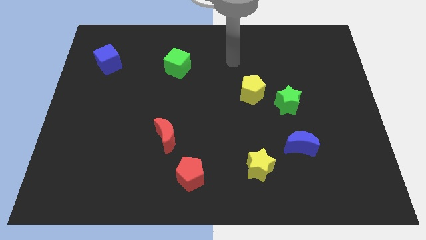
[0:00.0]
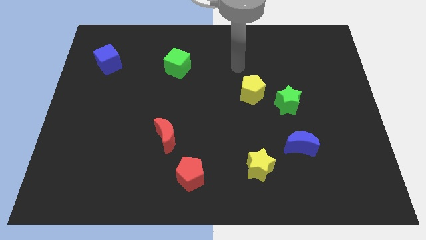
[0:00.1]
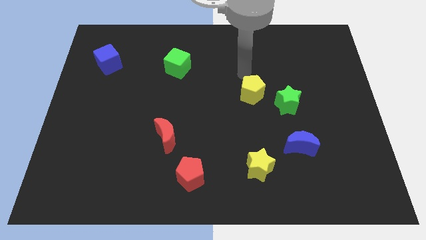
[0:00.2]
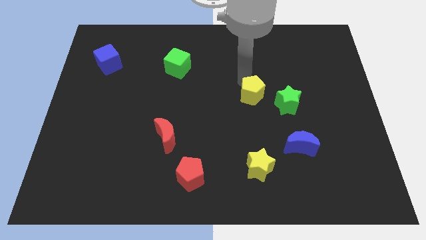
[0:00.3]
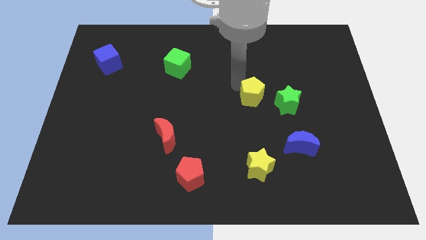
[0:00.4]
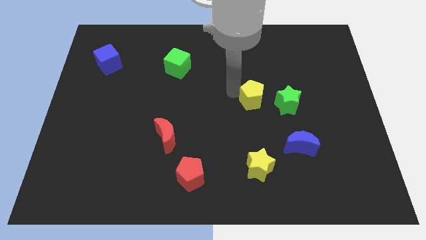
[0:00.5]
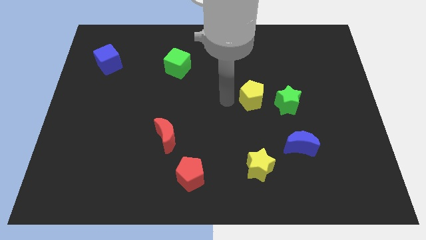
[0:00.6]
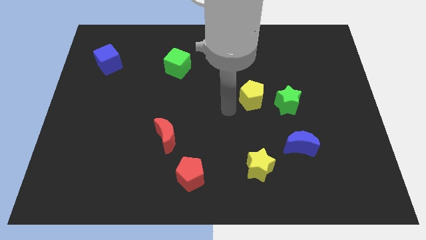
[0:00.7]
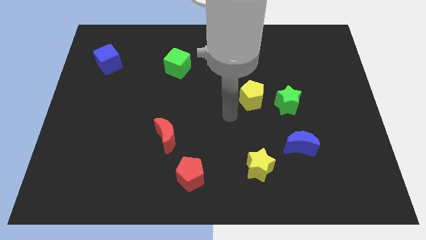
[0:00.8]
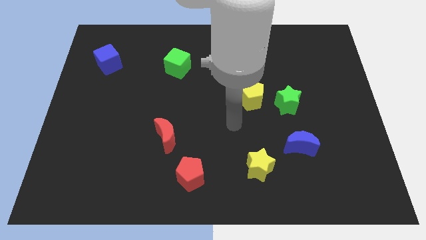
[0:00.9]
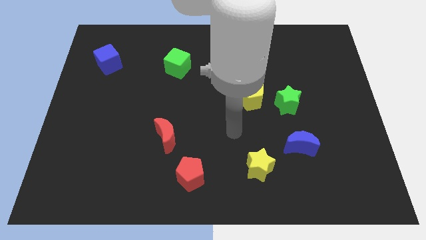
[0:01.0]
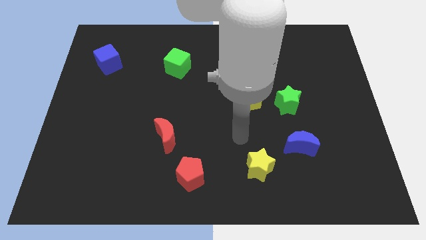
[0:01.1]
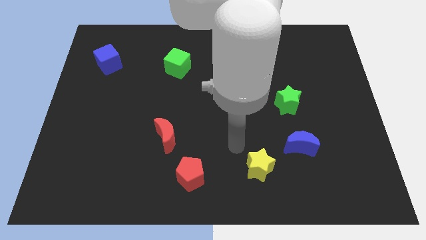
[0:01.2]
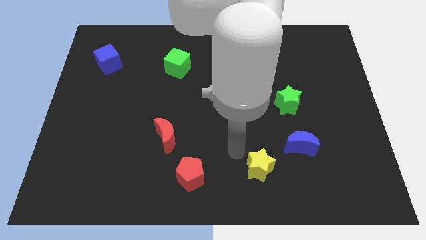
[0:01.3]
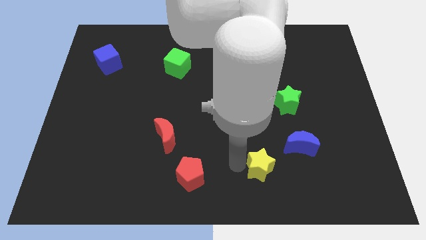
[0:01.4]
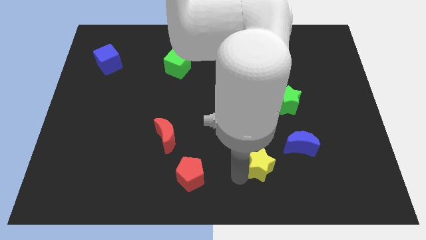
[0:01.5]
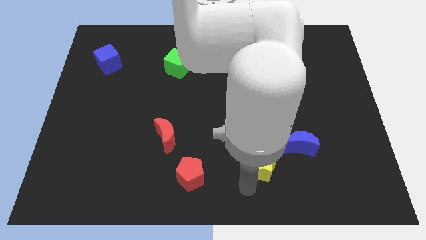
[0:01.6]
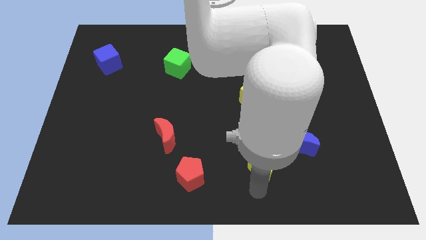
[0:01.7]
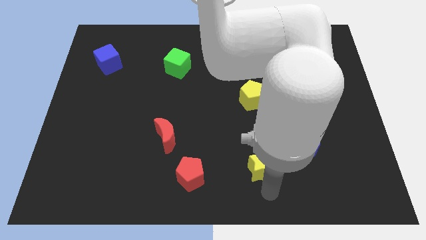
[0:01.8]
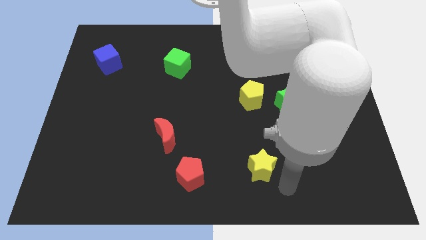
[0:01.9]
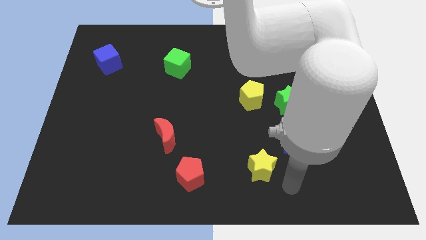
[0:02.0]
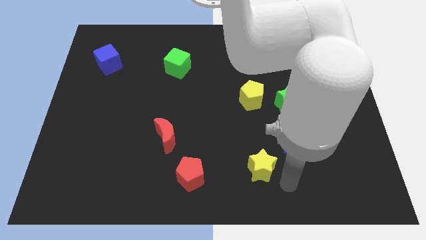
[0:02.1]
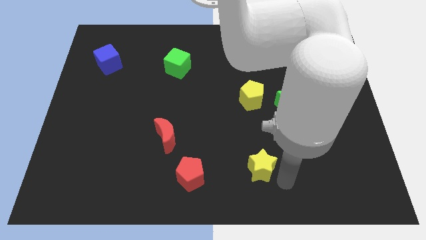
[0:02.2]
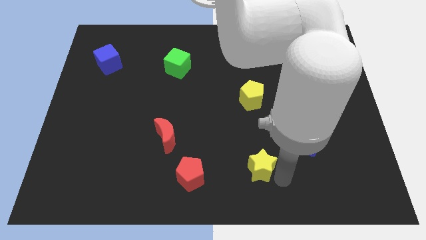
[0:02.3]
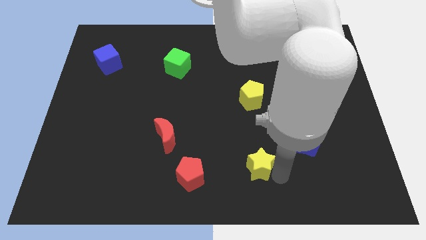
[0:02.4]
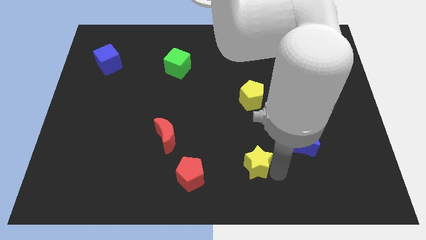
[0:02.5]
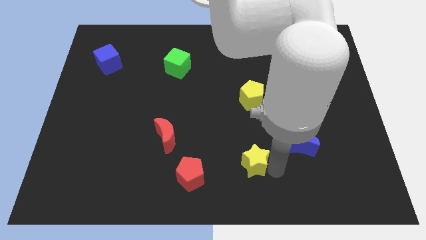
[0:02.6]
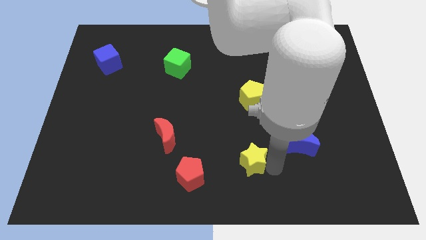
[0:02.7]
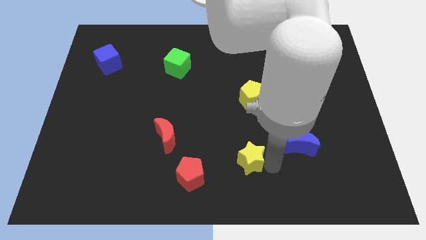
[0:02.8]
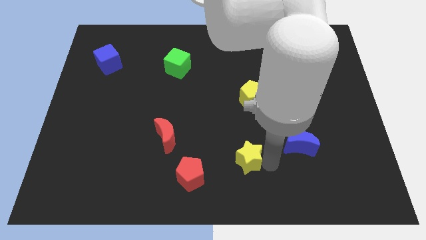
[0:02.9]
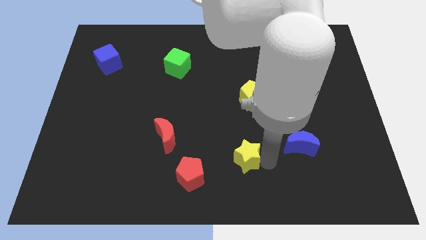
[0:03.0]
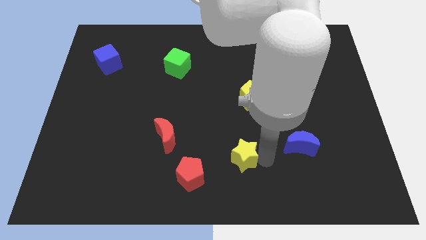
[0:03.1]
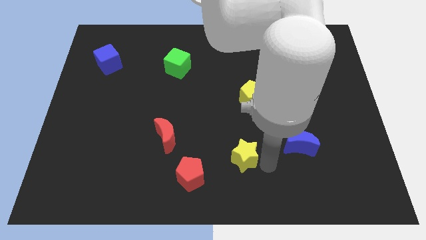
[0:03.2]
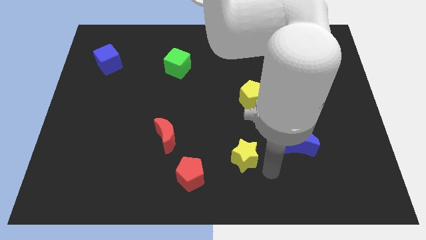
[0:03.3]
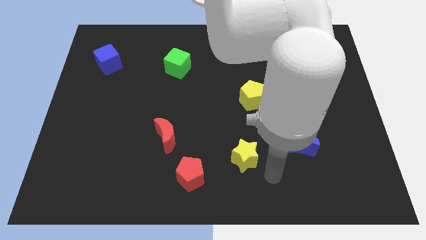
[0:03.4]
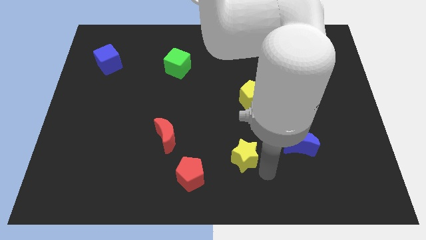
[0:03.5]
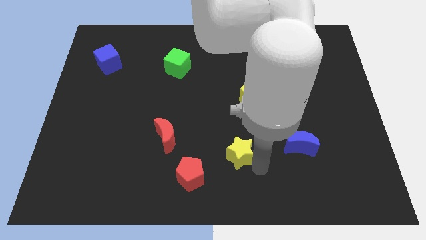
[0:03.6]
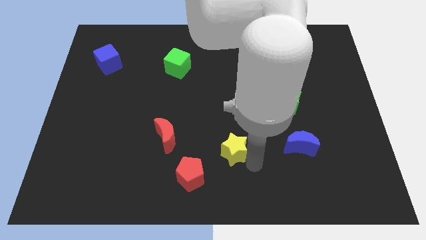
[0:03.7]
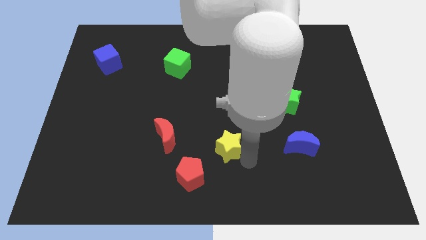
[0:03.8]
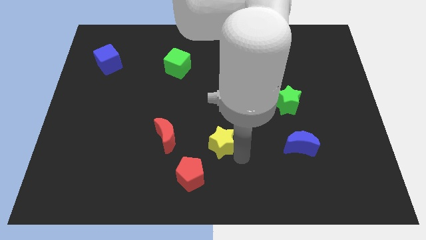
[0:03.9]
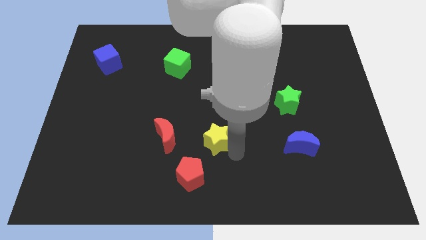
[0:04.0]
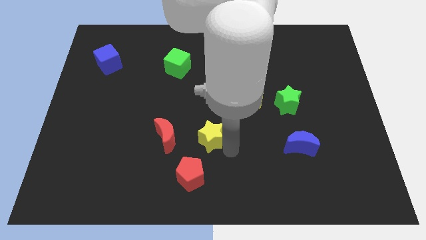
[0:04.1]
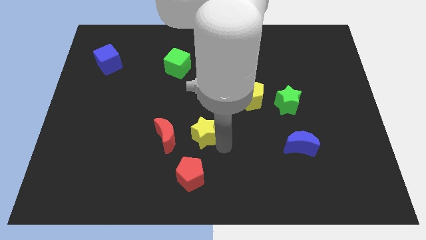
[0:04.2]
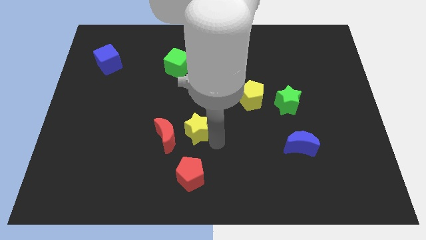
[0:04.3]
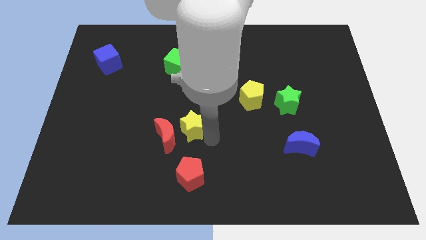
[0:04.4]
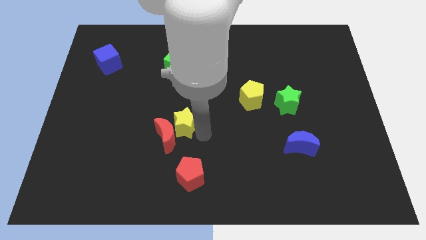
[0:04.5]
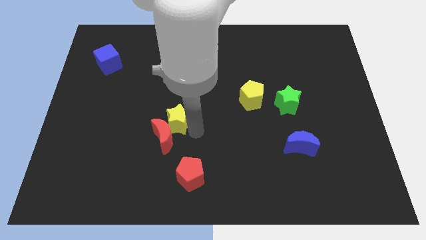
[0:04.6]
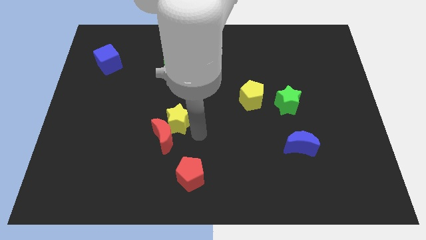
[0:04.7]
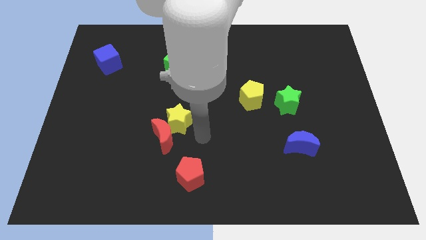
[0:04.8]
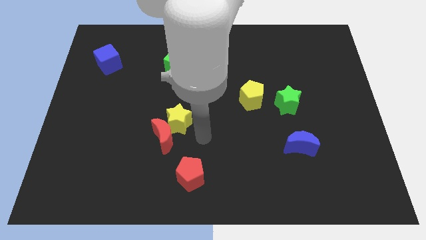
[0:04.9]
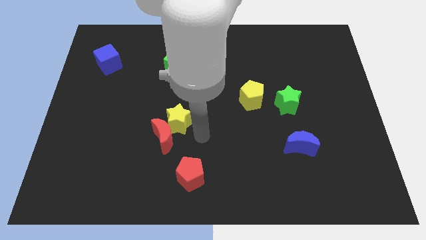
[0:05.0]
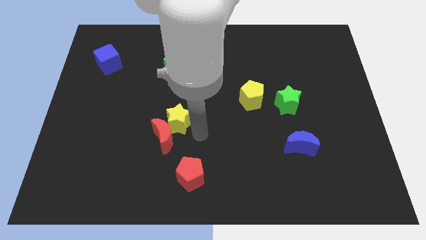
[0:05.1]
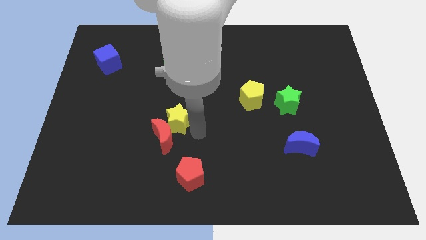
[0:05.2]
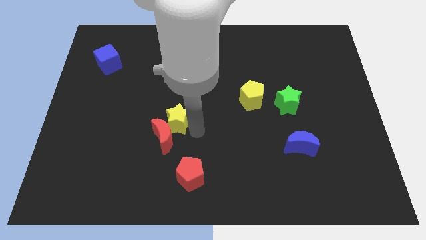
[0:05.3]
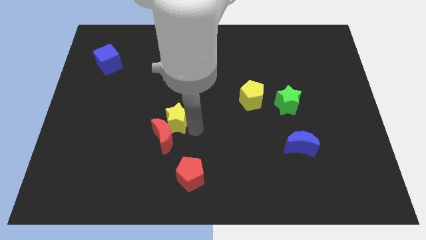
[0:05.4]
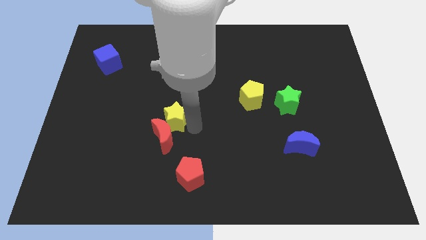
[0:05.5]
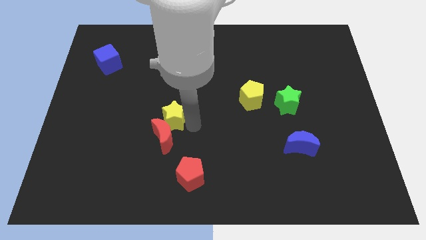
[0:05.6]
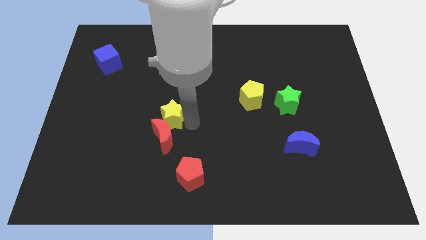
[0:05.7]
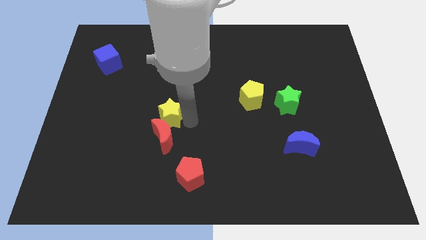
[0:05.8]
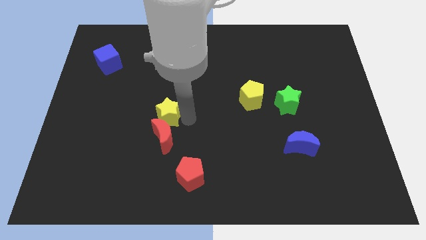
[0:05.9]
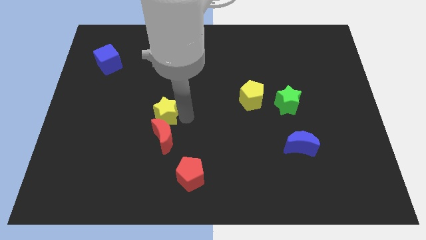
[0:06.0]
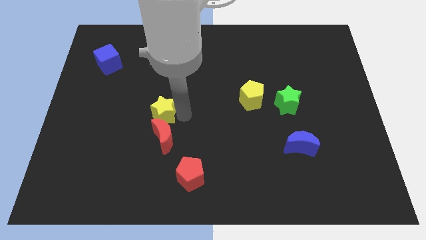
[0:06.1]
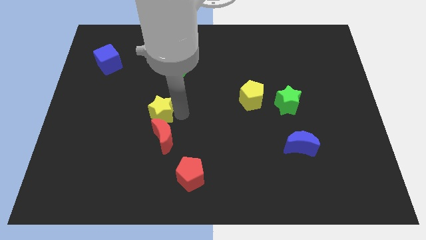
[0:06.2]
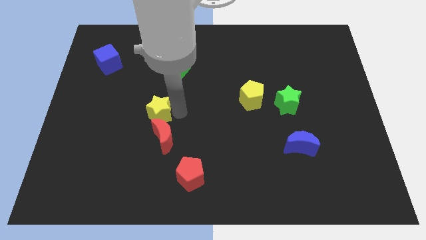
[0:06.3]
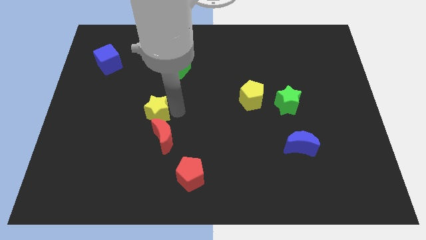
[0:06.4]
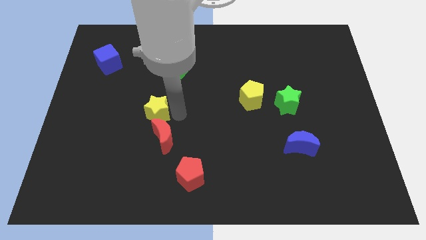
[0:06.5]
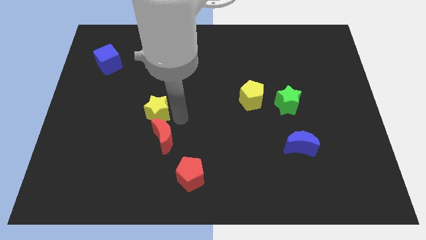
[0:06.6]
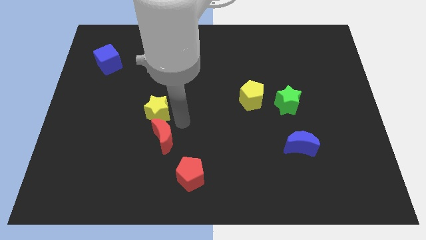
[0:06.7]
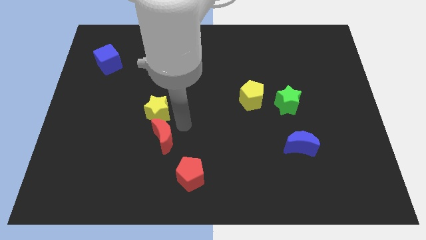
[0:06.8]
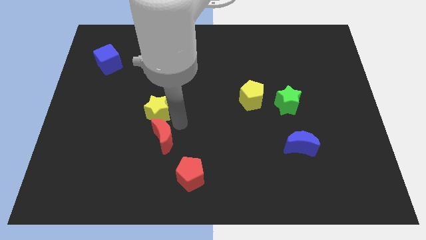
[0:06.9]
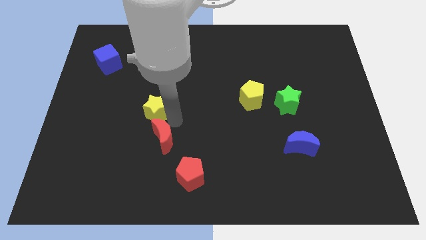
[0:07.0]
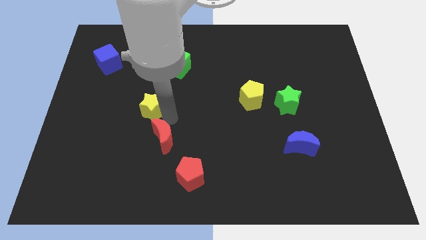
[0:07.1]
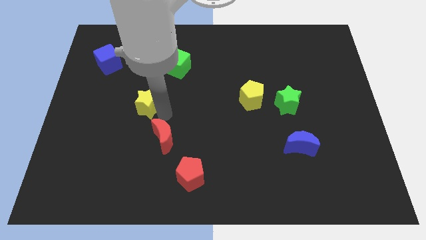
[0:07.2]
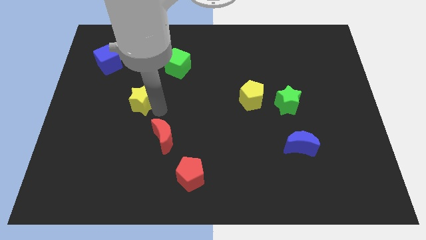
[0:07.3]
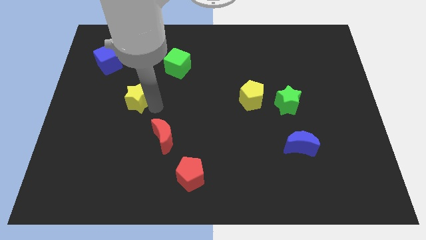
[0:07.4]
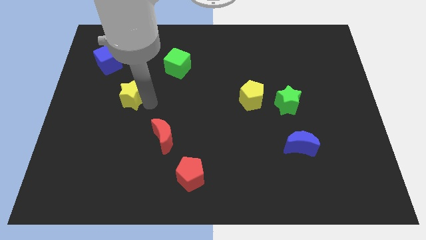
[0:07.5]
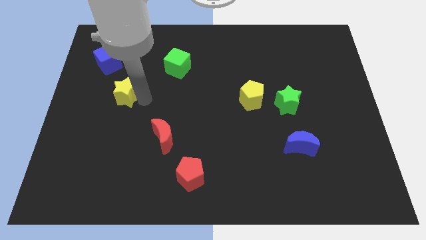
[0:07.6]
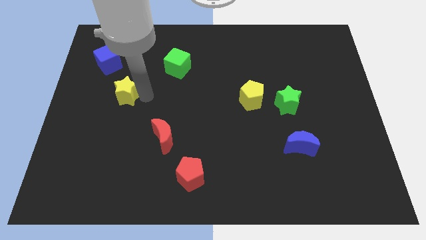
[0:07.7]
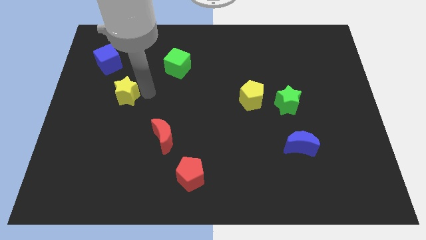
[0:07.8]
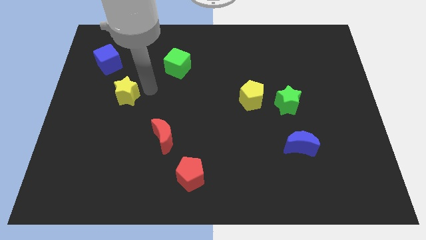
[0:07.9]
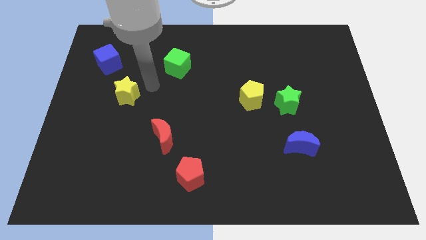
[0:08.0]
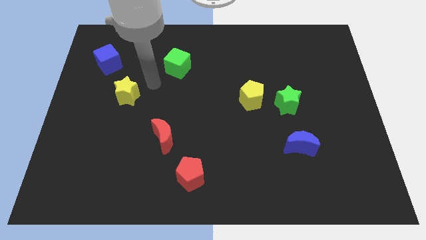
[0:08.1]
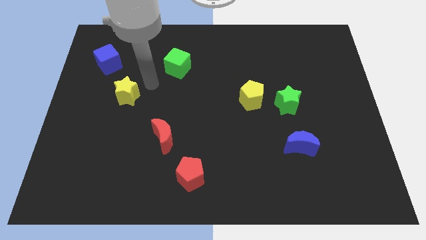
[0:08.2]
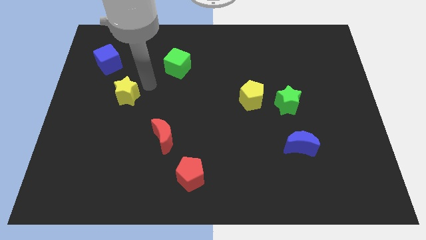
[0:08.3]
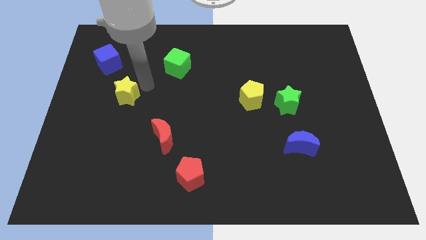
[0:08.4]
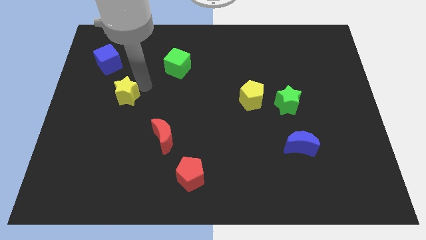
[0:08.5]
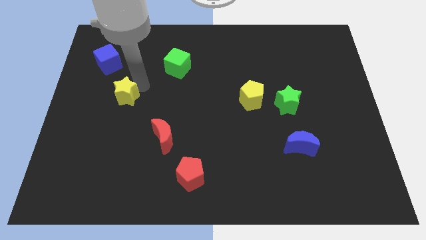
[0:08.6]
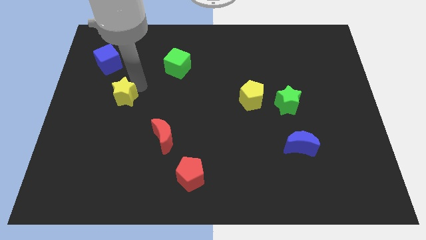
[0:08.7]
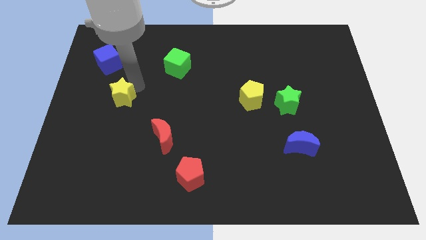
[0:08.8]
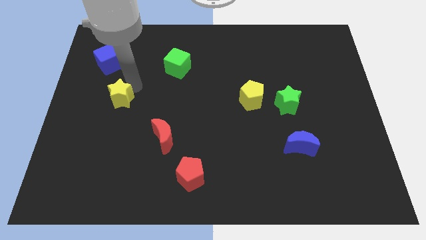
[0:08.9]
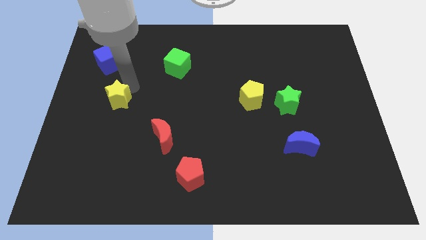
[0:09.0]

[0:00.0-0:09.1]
slide the yellow star to the bottom side of the blue cube
